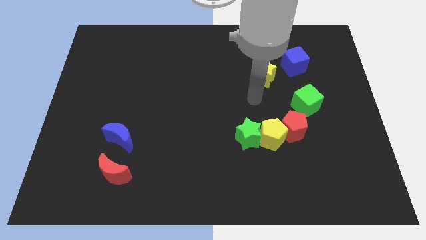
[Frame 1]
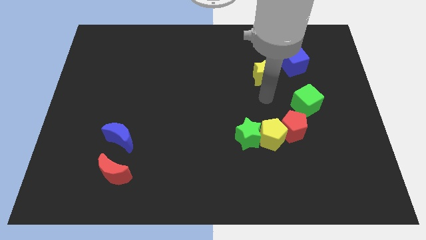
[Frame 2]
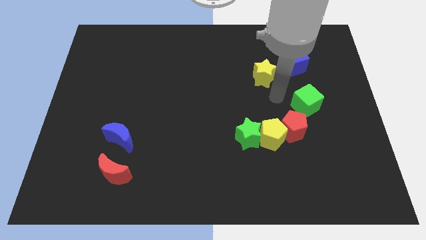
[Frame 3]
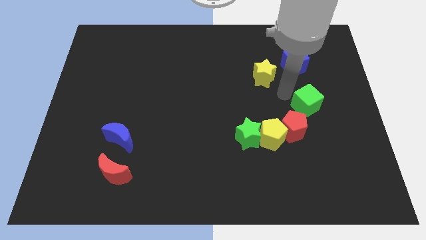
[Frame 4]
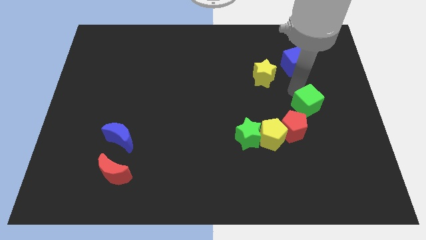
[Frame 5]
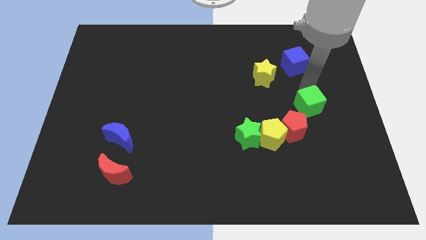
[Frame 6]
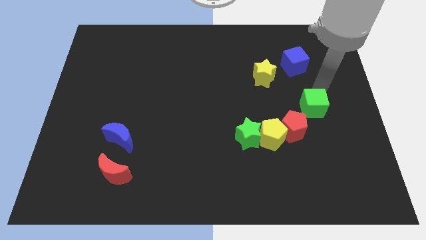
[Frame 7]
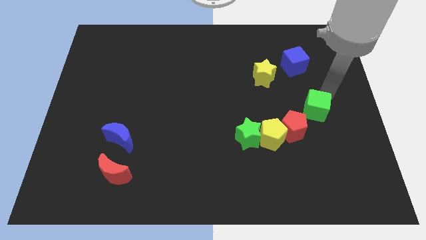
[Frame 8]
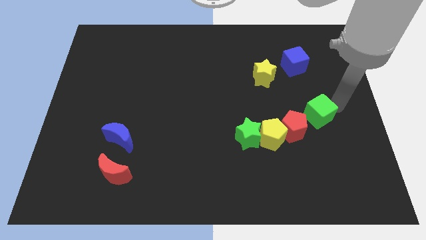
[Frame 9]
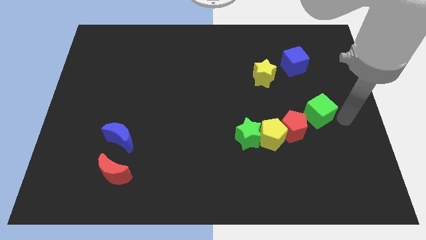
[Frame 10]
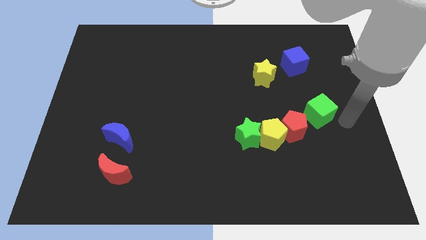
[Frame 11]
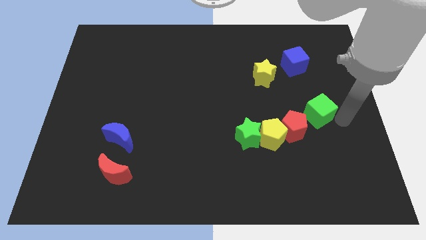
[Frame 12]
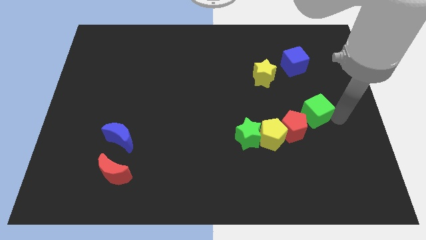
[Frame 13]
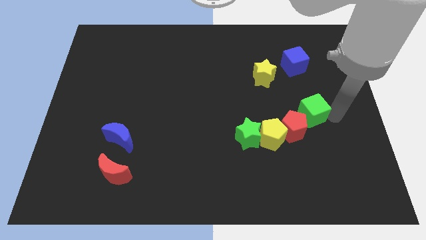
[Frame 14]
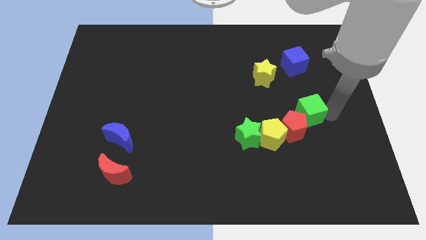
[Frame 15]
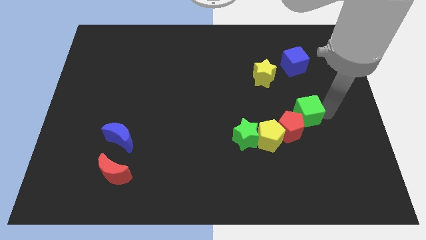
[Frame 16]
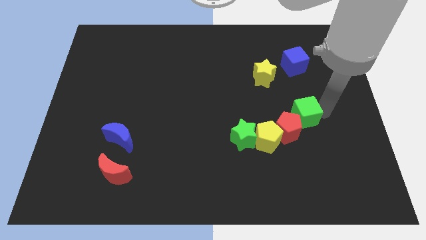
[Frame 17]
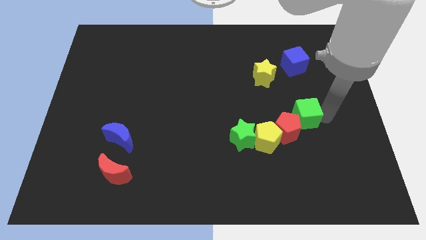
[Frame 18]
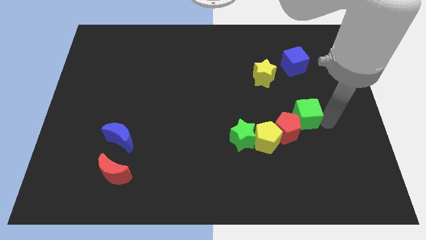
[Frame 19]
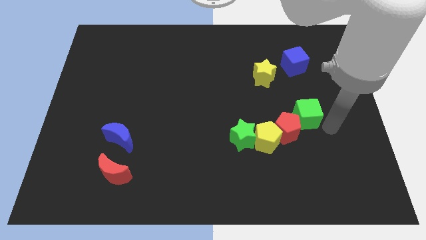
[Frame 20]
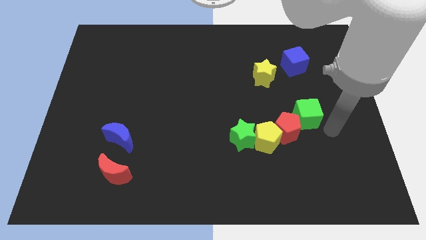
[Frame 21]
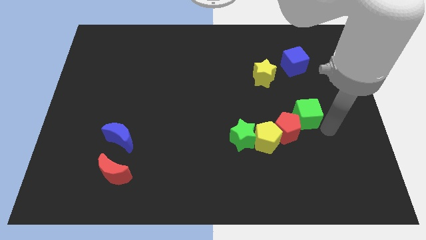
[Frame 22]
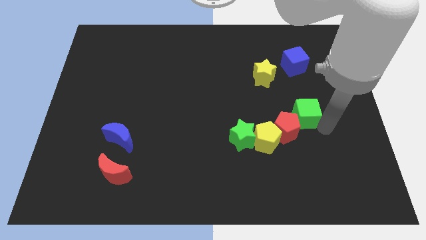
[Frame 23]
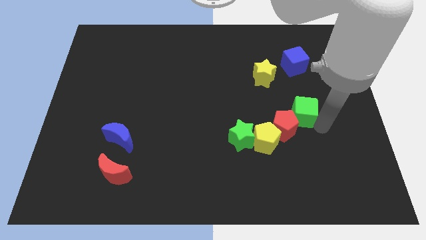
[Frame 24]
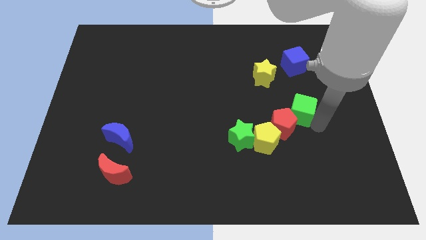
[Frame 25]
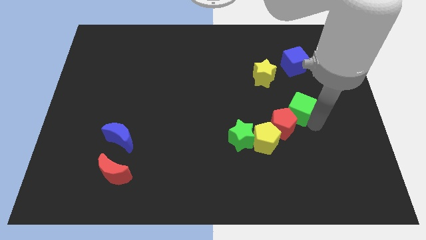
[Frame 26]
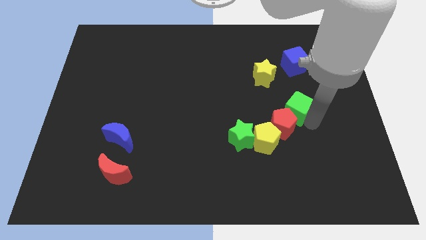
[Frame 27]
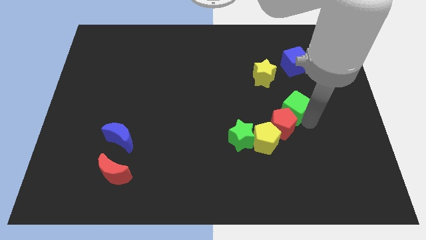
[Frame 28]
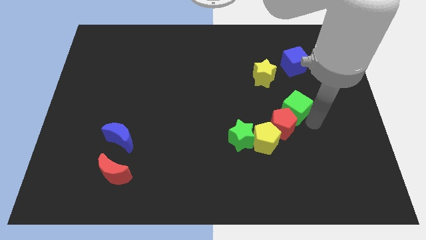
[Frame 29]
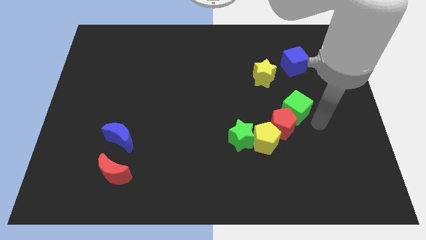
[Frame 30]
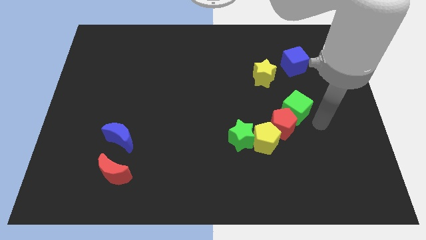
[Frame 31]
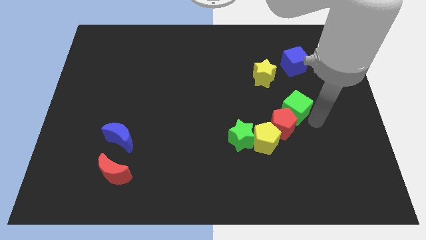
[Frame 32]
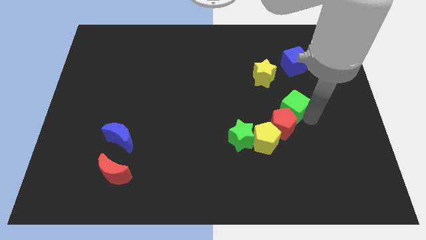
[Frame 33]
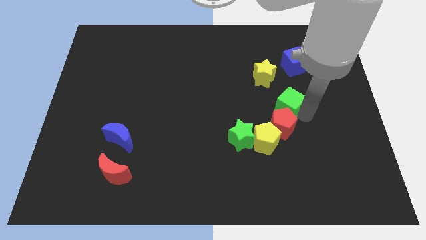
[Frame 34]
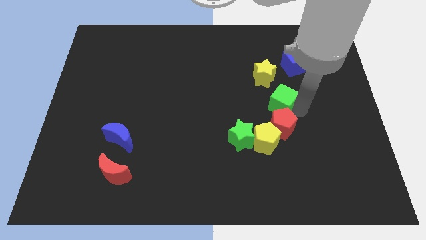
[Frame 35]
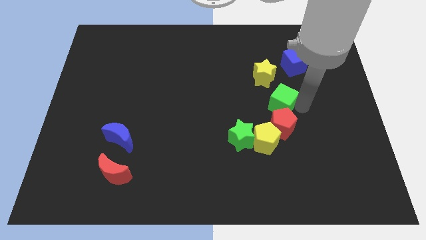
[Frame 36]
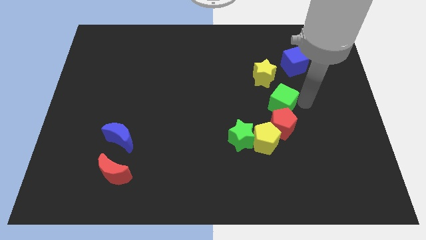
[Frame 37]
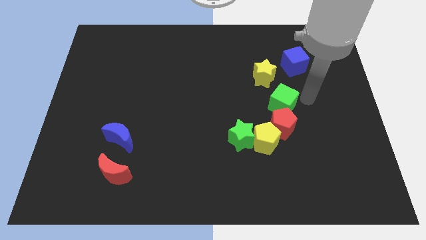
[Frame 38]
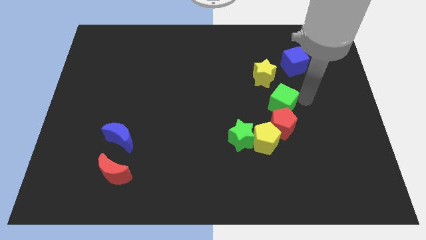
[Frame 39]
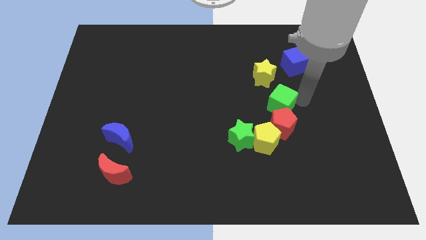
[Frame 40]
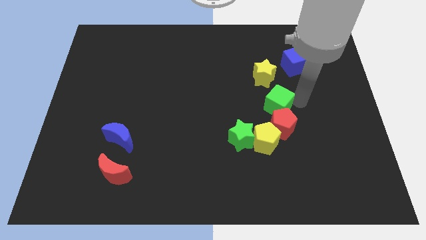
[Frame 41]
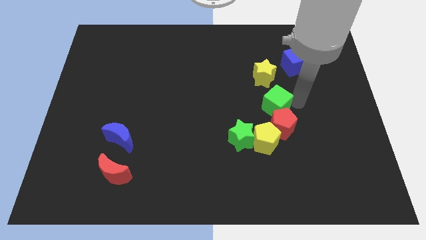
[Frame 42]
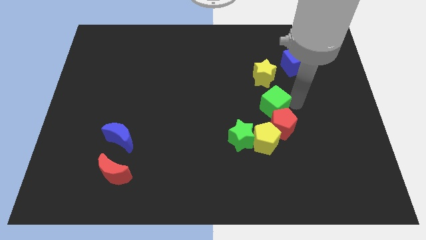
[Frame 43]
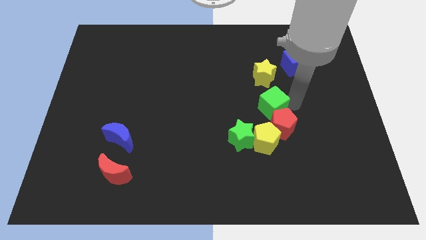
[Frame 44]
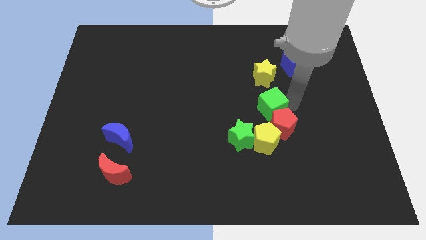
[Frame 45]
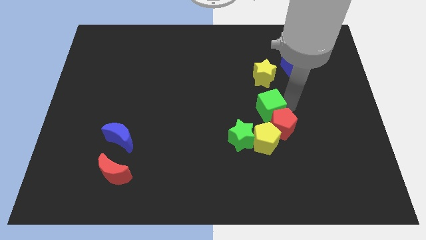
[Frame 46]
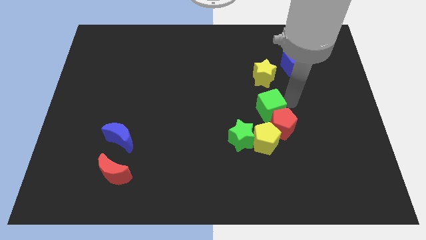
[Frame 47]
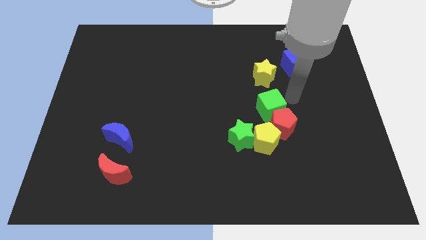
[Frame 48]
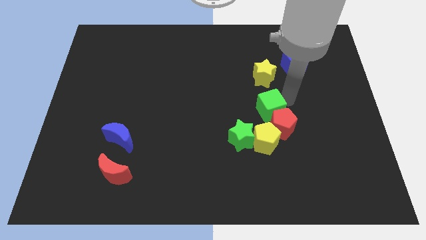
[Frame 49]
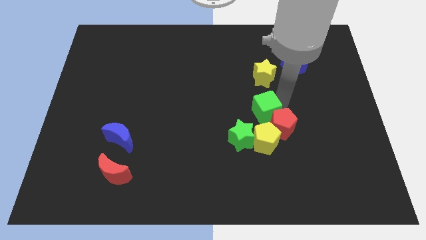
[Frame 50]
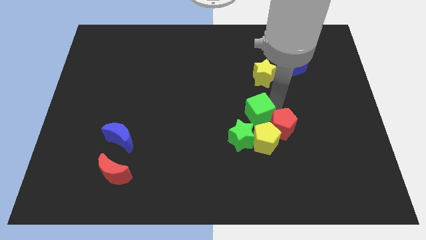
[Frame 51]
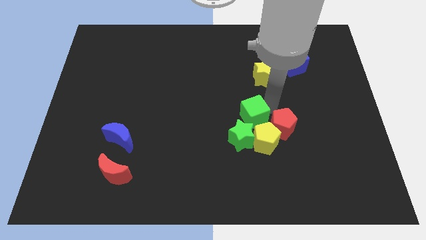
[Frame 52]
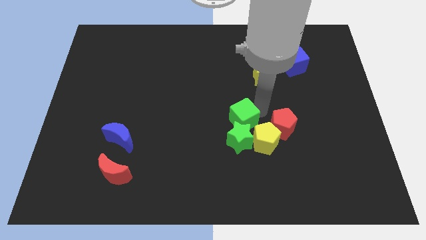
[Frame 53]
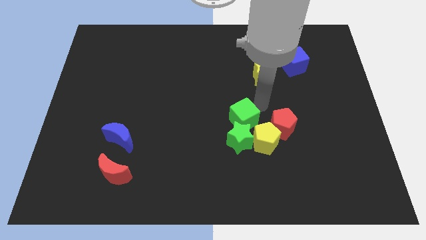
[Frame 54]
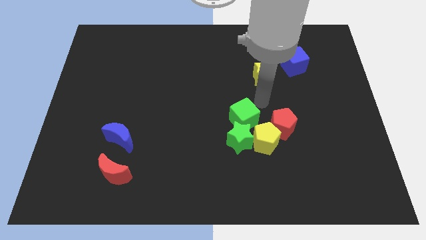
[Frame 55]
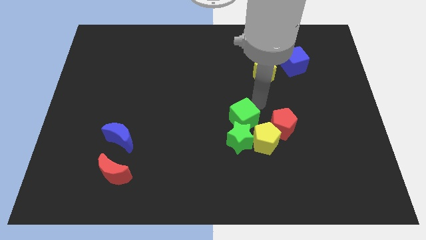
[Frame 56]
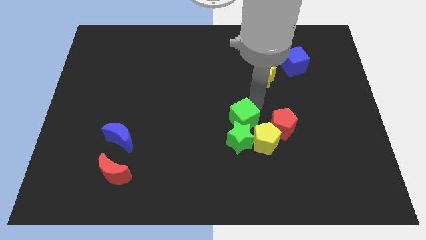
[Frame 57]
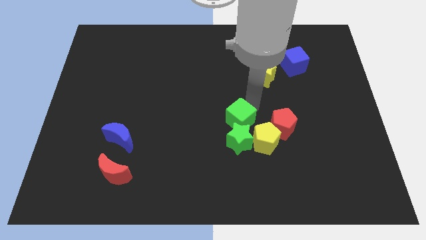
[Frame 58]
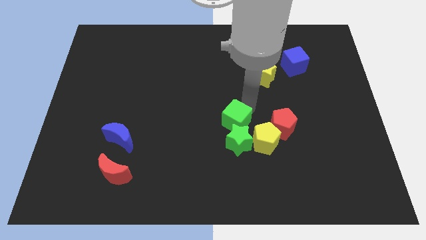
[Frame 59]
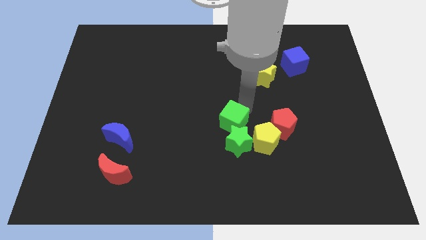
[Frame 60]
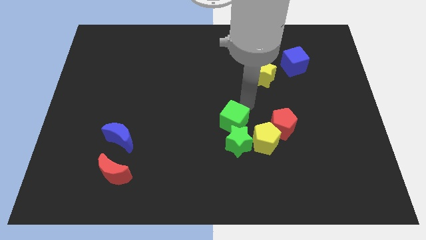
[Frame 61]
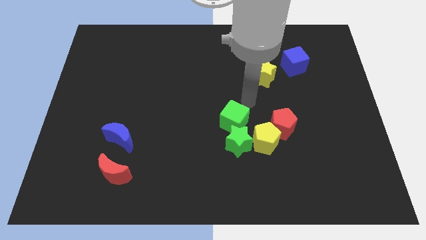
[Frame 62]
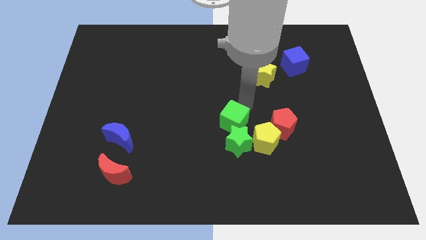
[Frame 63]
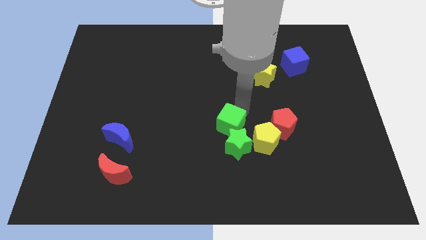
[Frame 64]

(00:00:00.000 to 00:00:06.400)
put the green cube to the left side of the yellow pentagon
